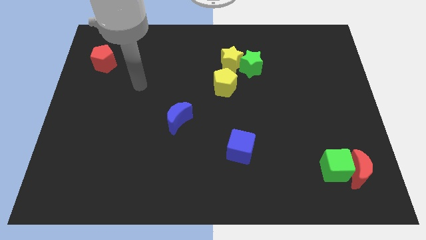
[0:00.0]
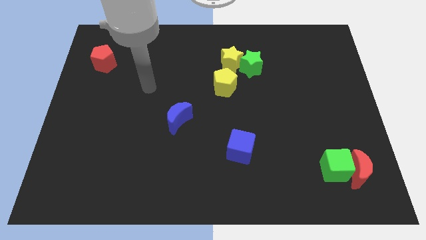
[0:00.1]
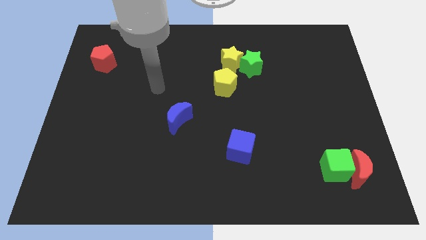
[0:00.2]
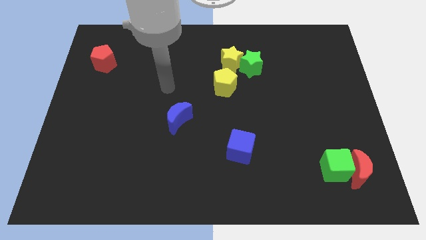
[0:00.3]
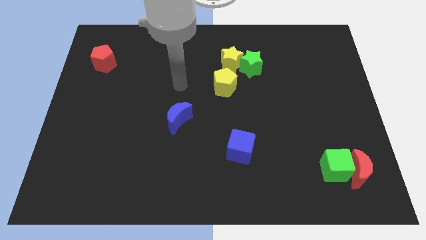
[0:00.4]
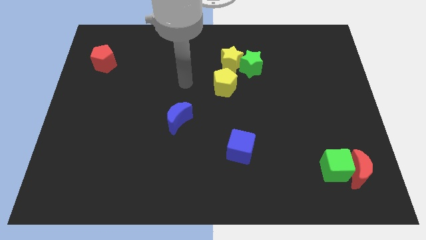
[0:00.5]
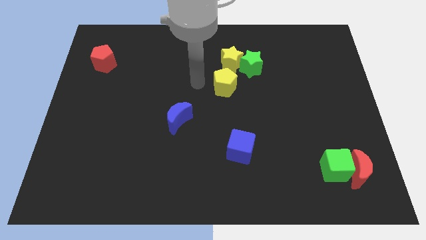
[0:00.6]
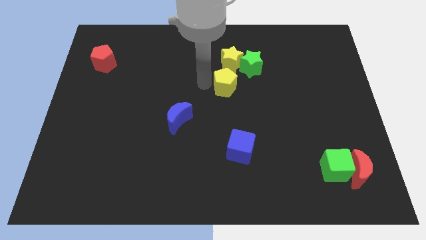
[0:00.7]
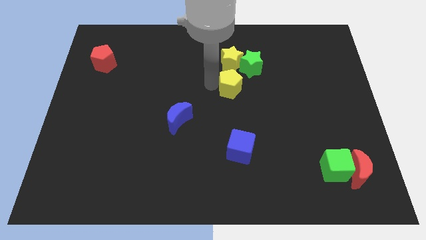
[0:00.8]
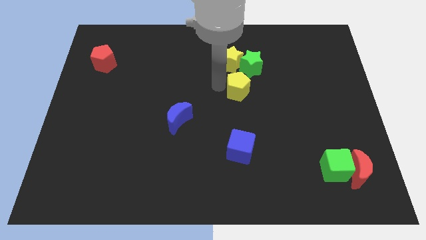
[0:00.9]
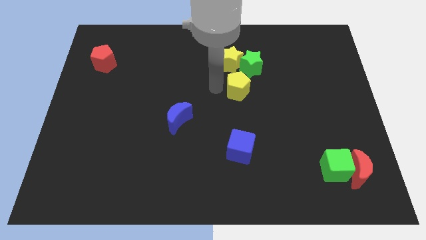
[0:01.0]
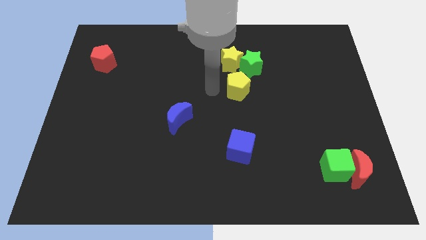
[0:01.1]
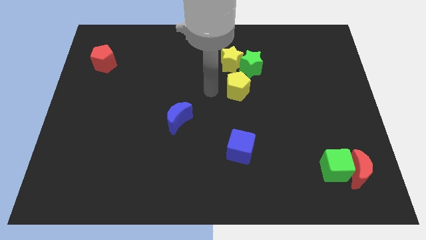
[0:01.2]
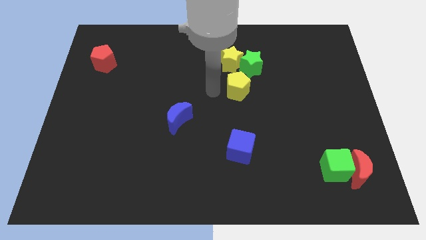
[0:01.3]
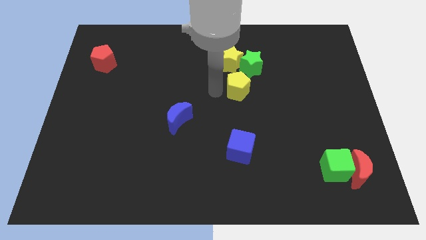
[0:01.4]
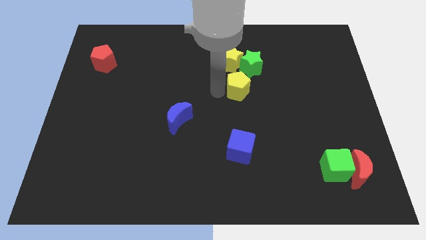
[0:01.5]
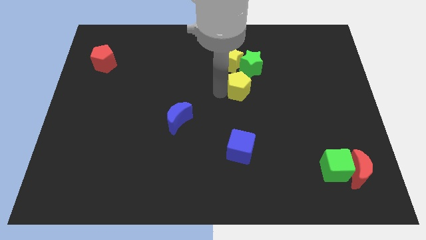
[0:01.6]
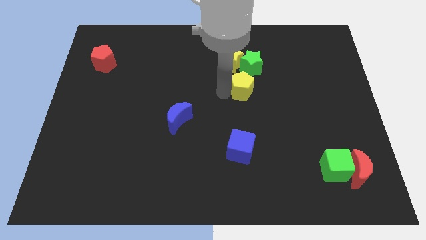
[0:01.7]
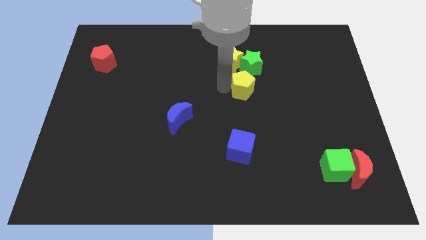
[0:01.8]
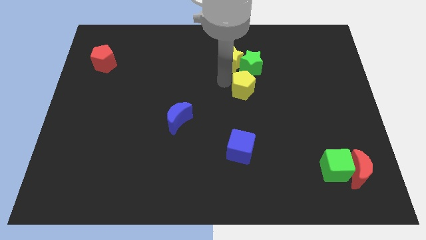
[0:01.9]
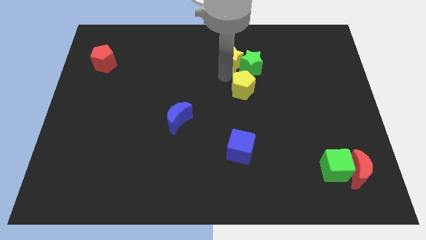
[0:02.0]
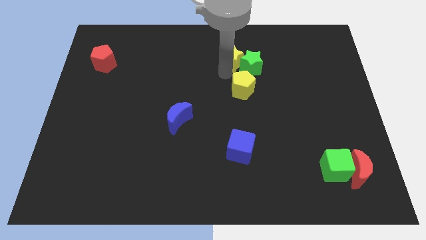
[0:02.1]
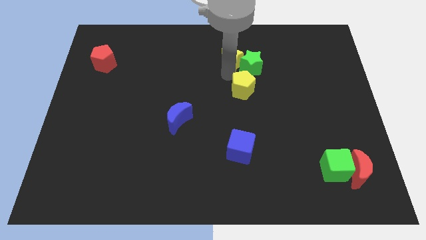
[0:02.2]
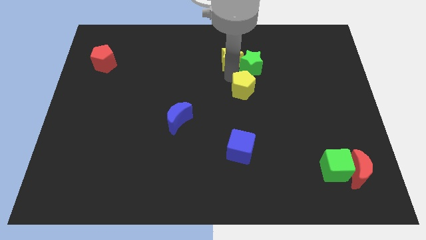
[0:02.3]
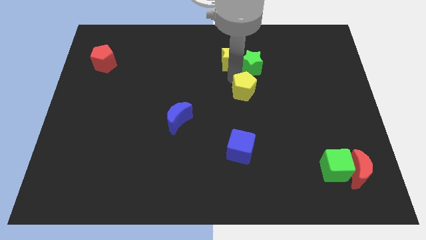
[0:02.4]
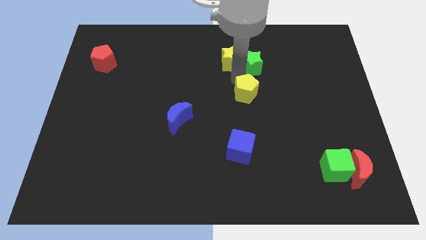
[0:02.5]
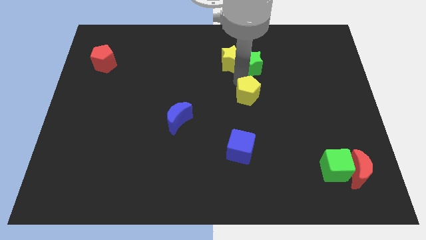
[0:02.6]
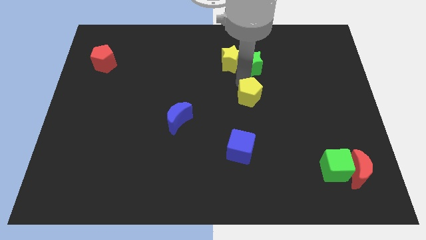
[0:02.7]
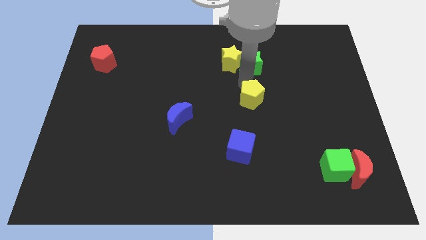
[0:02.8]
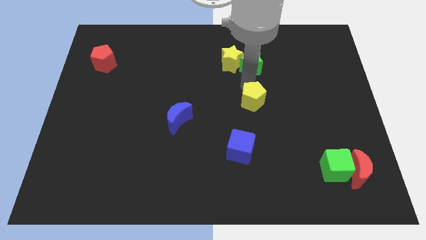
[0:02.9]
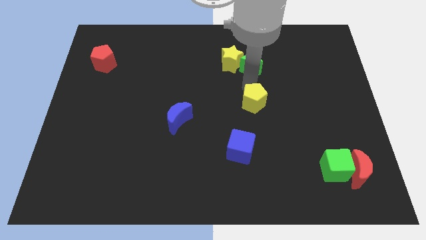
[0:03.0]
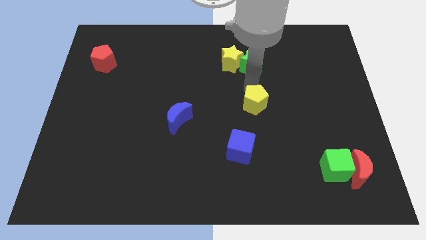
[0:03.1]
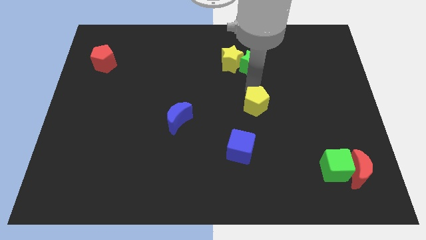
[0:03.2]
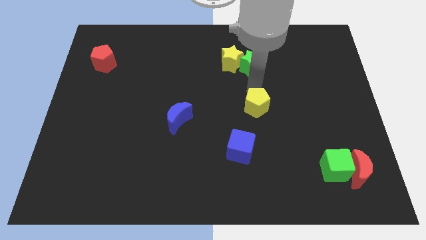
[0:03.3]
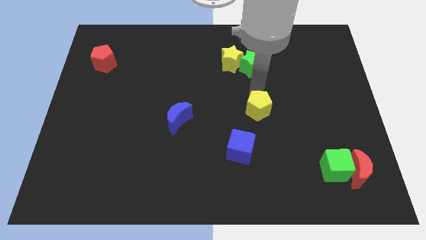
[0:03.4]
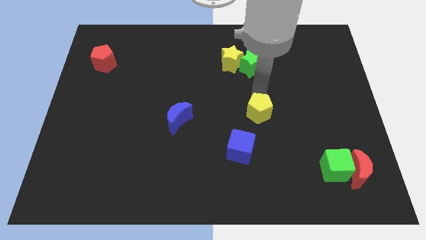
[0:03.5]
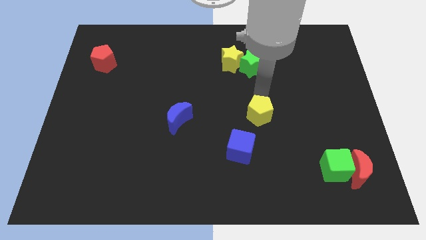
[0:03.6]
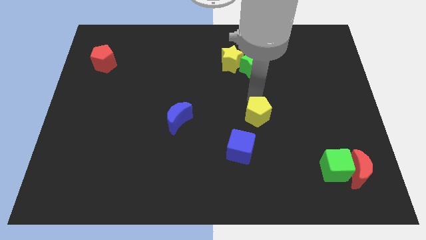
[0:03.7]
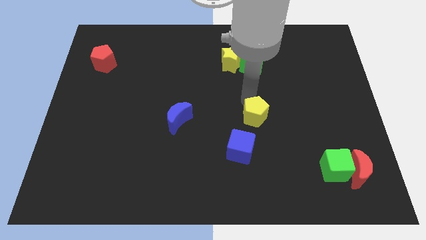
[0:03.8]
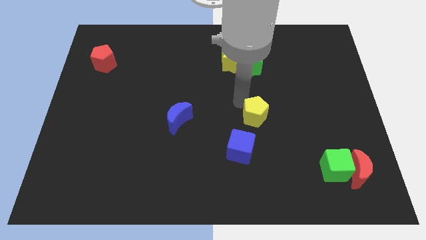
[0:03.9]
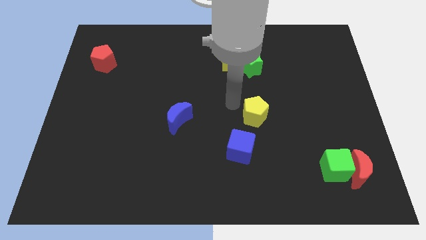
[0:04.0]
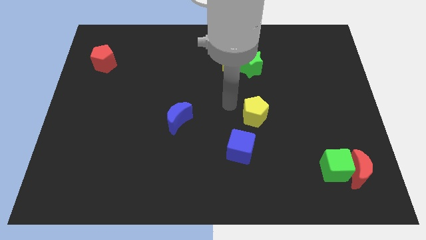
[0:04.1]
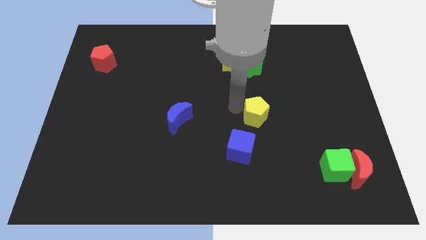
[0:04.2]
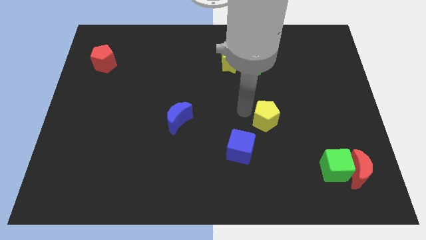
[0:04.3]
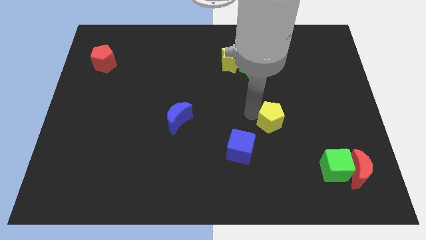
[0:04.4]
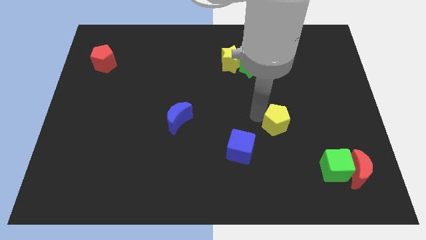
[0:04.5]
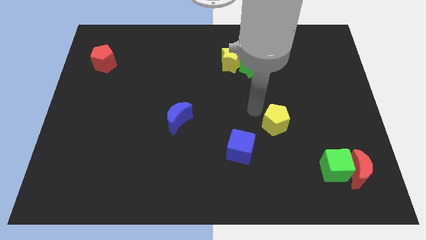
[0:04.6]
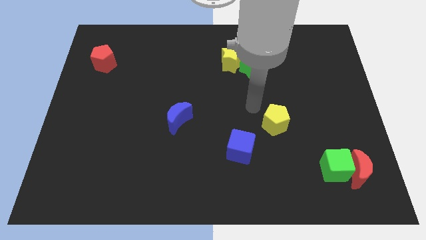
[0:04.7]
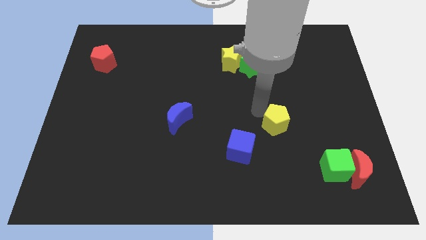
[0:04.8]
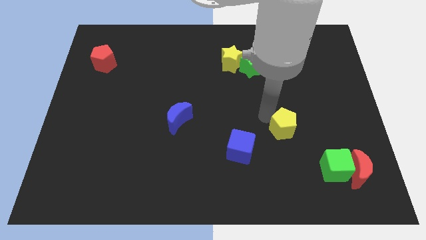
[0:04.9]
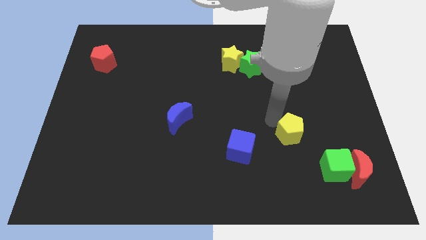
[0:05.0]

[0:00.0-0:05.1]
slide the yellow pentagon diagonally up and to the left of the green cube

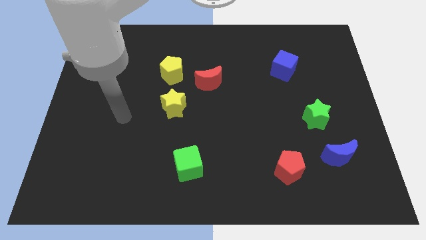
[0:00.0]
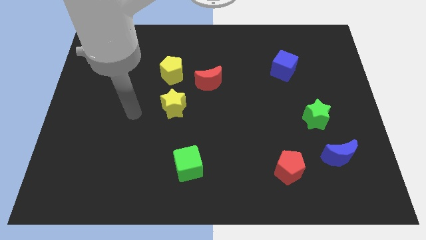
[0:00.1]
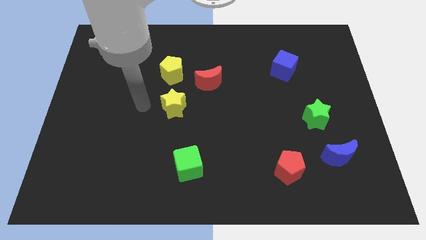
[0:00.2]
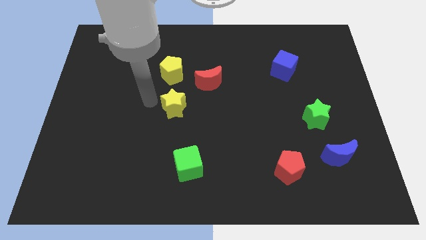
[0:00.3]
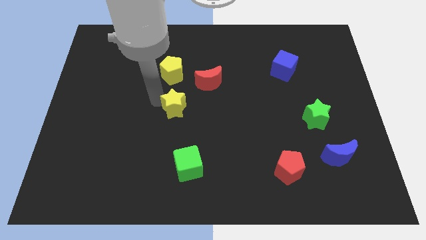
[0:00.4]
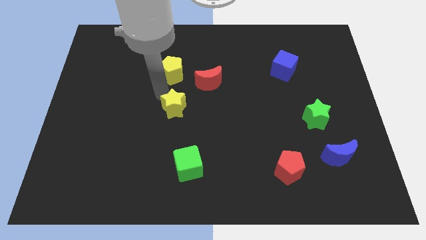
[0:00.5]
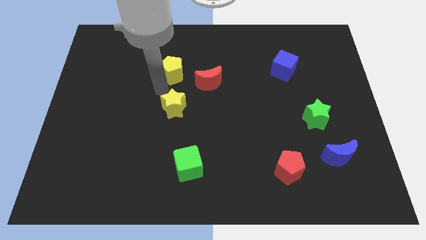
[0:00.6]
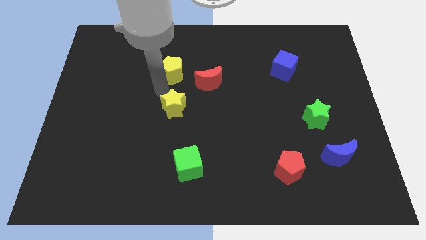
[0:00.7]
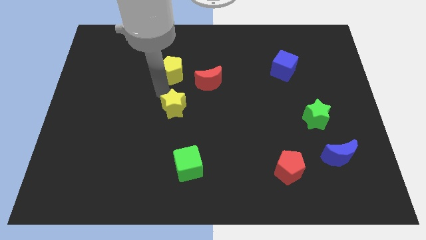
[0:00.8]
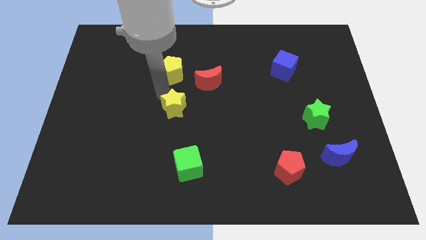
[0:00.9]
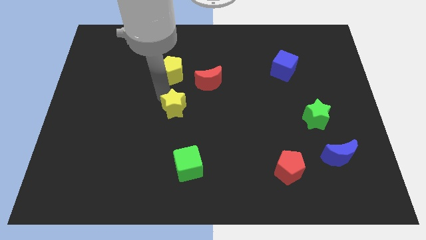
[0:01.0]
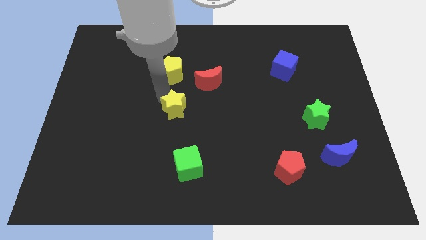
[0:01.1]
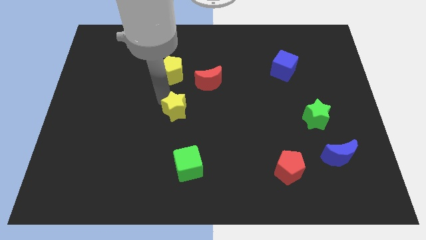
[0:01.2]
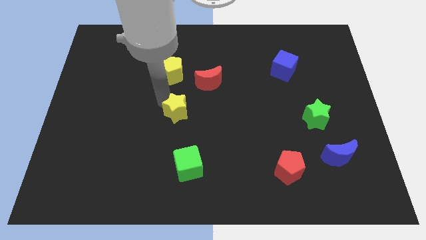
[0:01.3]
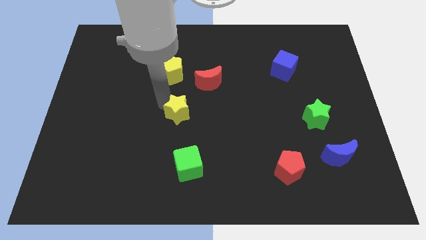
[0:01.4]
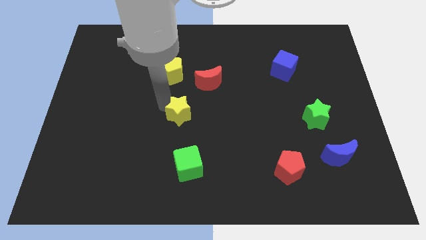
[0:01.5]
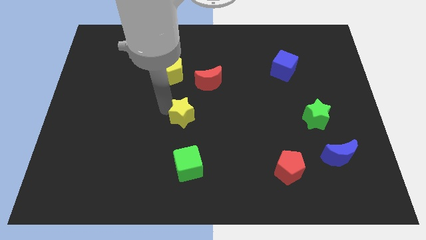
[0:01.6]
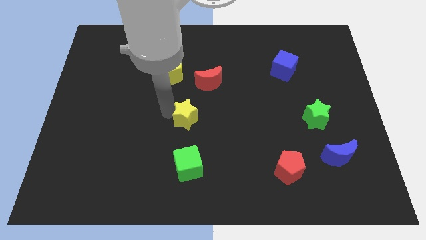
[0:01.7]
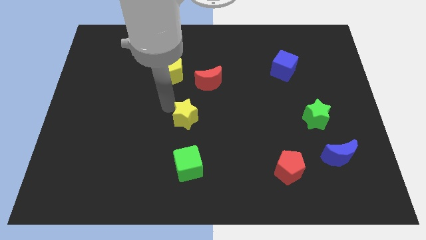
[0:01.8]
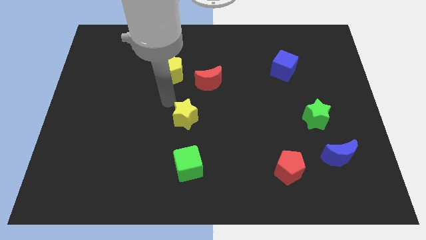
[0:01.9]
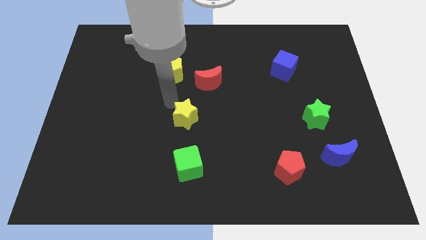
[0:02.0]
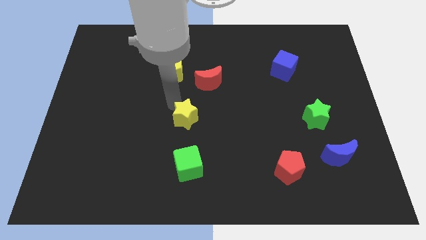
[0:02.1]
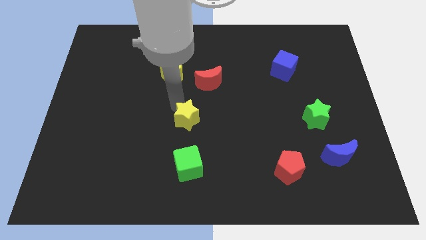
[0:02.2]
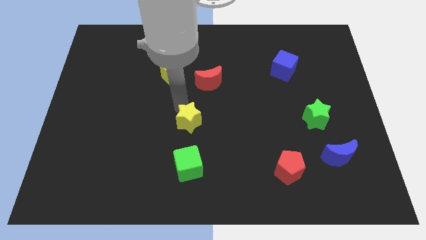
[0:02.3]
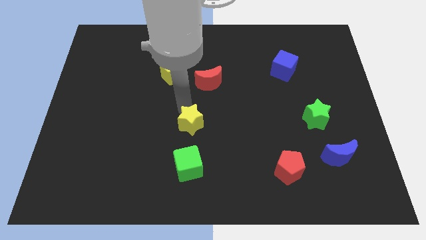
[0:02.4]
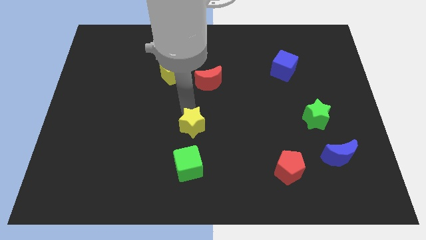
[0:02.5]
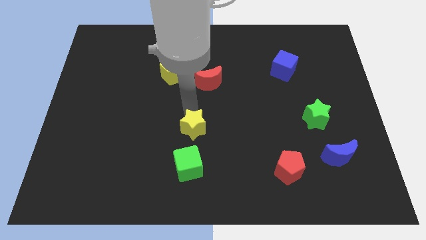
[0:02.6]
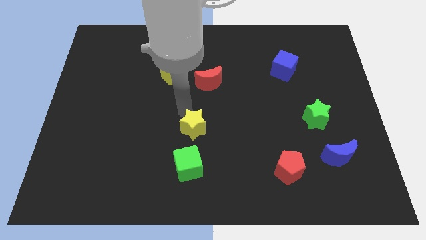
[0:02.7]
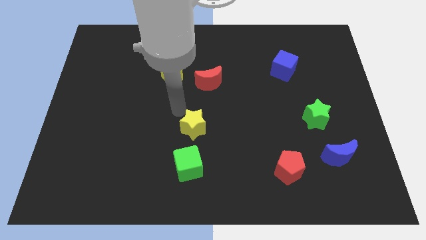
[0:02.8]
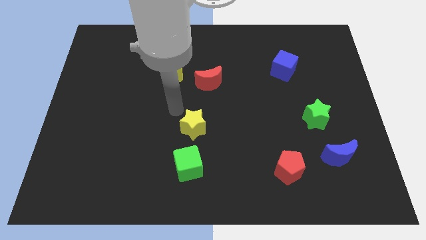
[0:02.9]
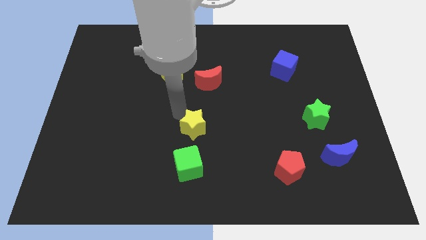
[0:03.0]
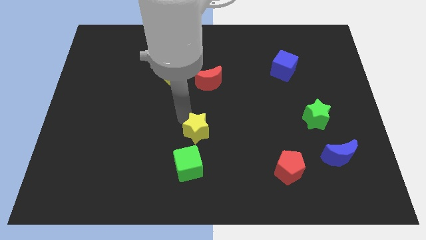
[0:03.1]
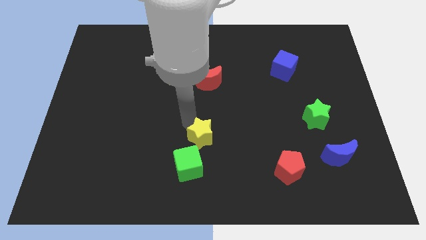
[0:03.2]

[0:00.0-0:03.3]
slide the yellow star to the top right side of the green cube
